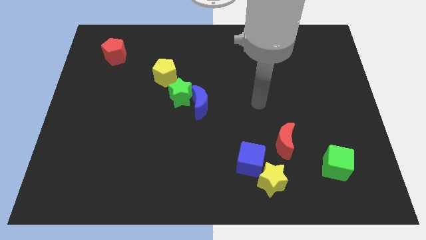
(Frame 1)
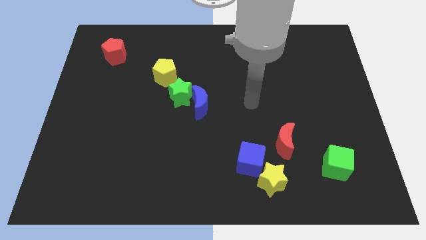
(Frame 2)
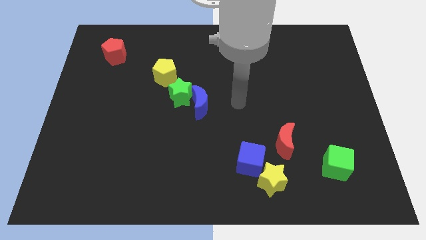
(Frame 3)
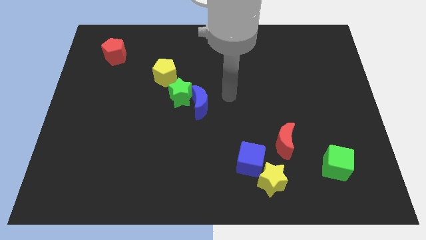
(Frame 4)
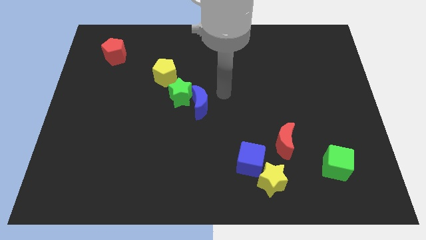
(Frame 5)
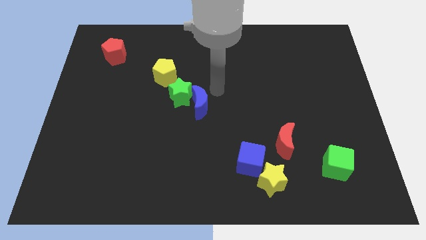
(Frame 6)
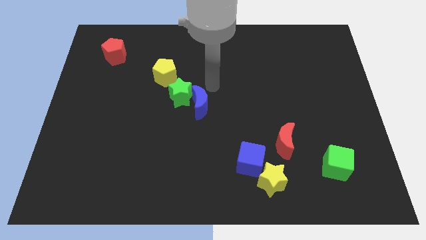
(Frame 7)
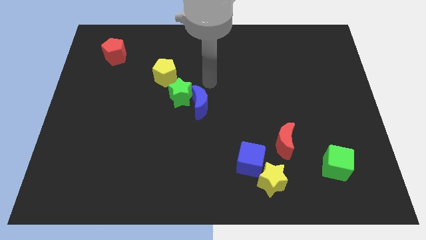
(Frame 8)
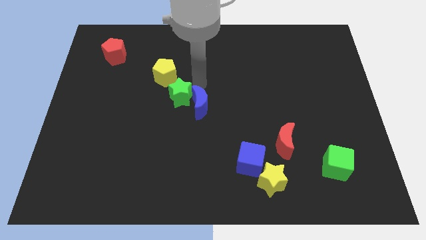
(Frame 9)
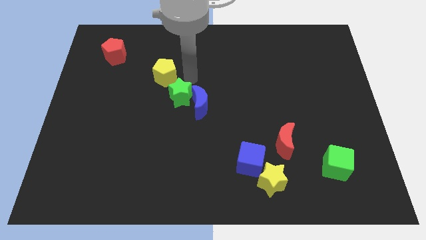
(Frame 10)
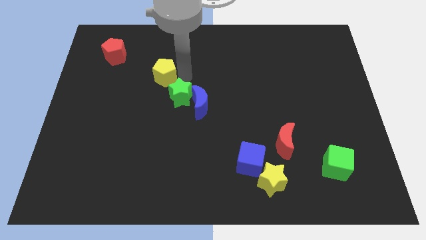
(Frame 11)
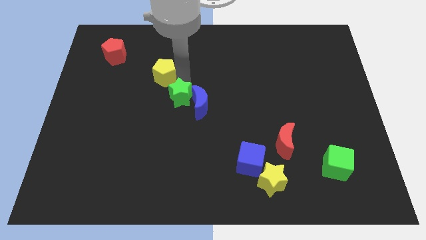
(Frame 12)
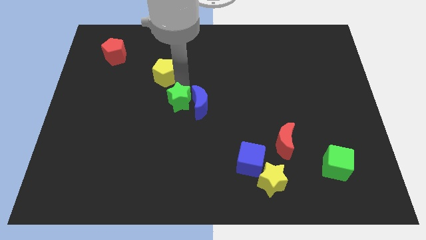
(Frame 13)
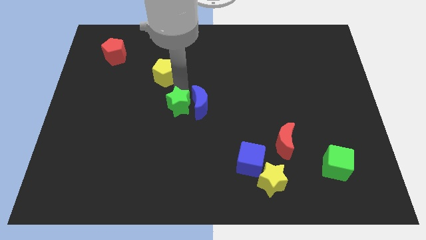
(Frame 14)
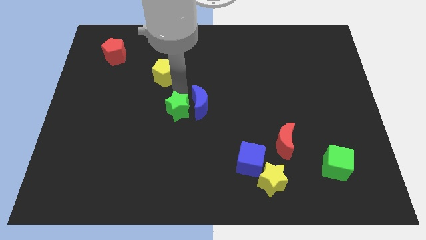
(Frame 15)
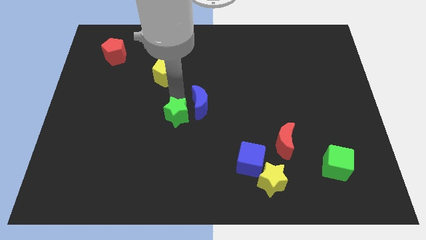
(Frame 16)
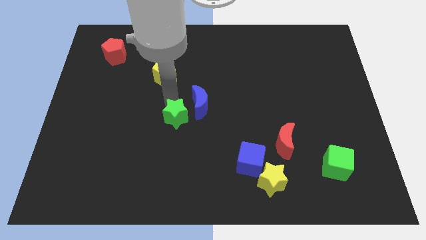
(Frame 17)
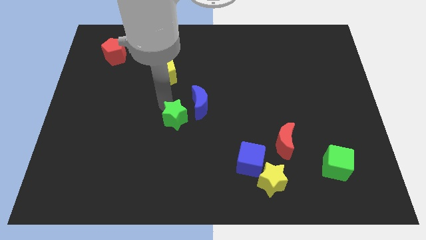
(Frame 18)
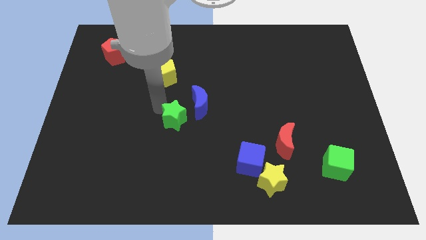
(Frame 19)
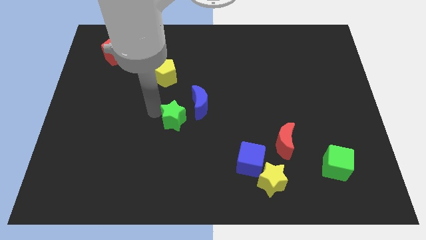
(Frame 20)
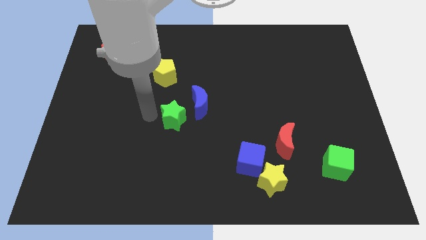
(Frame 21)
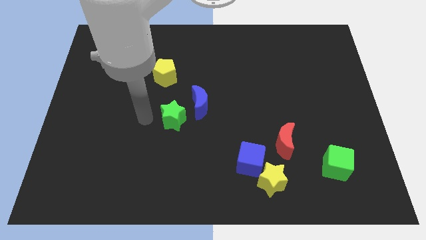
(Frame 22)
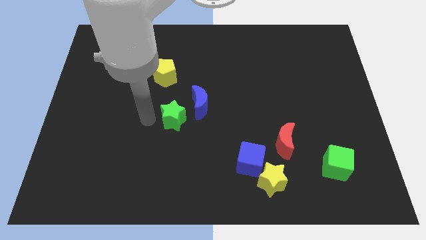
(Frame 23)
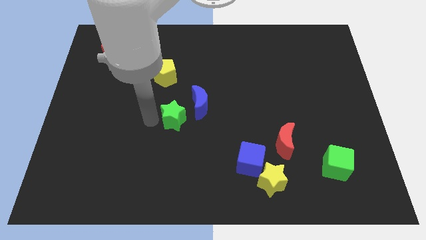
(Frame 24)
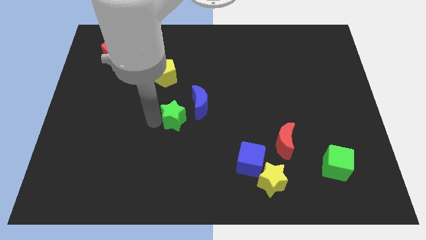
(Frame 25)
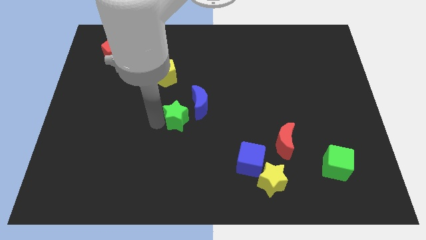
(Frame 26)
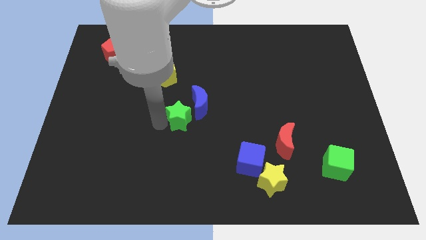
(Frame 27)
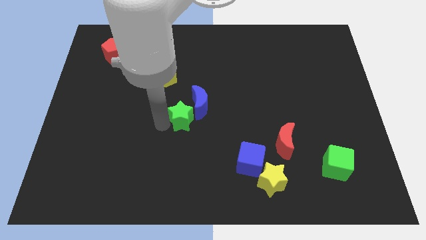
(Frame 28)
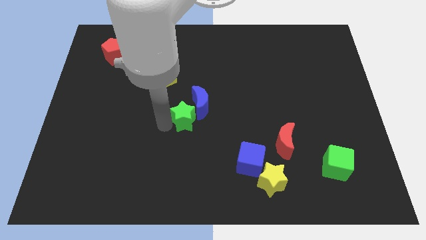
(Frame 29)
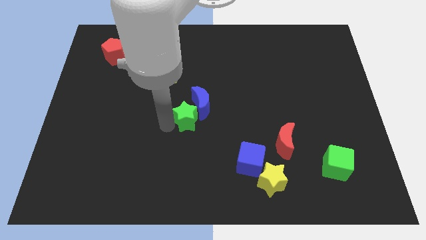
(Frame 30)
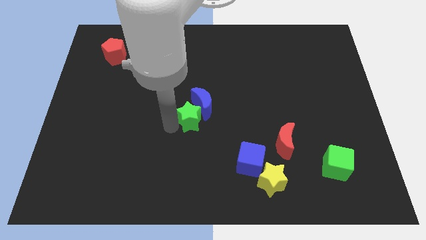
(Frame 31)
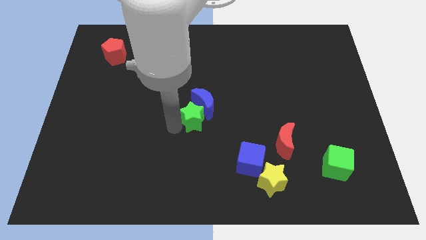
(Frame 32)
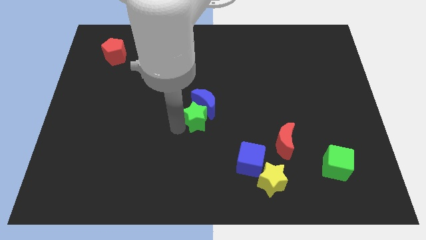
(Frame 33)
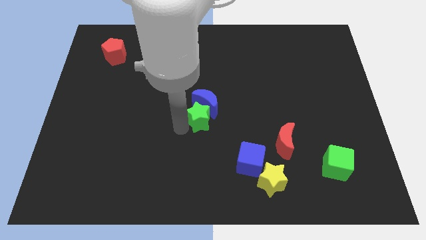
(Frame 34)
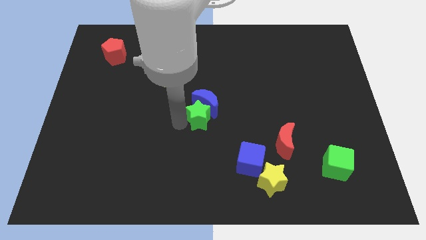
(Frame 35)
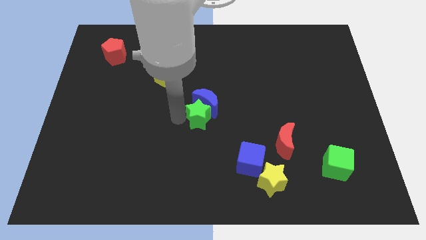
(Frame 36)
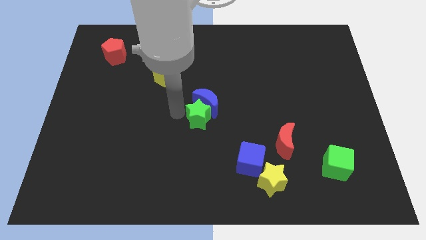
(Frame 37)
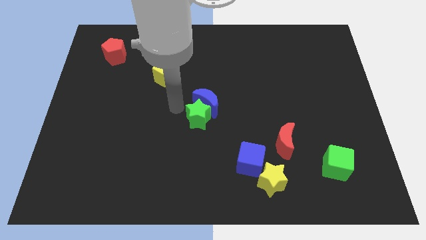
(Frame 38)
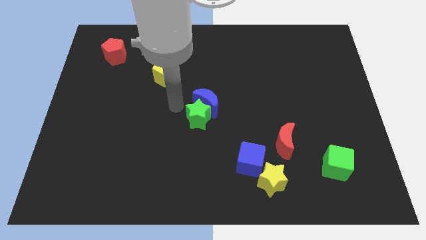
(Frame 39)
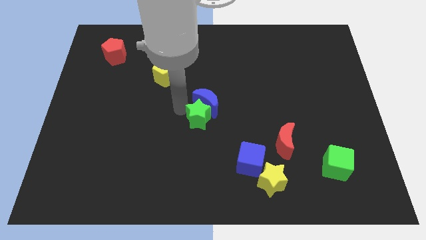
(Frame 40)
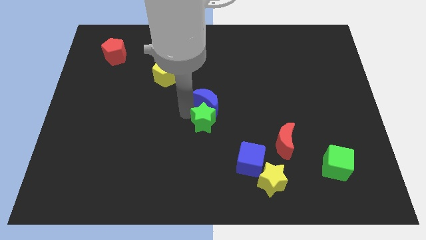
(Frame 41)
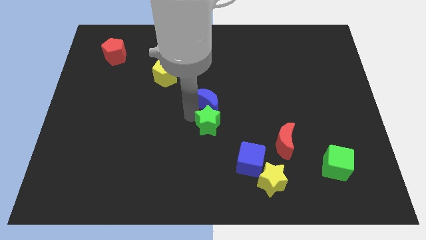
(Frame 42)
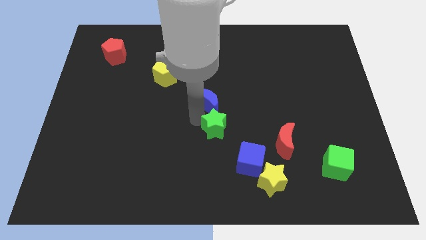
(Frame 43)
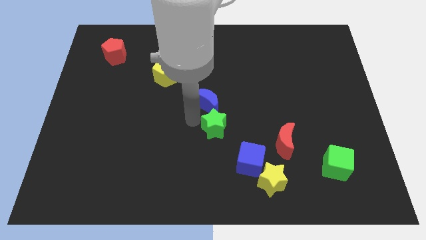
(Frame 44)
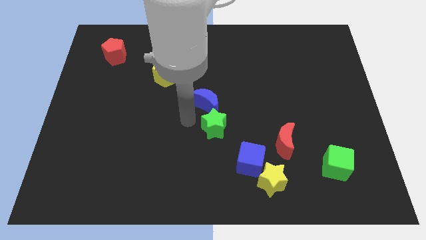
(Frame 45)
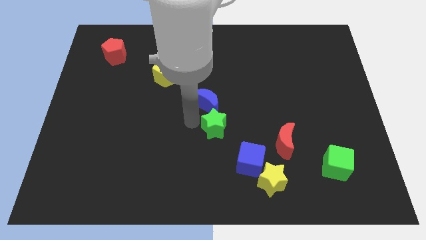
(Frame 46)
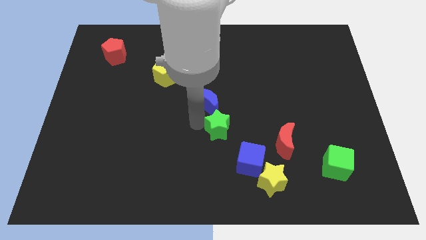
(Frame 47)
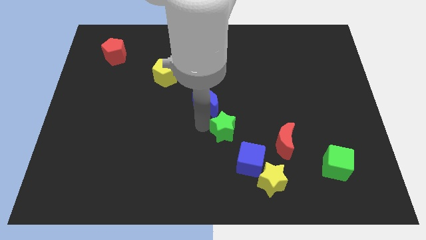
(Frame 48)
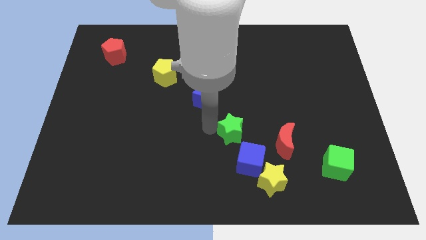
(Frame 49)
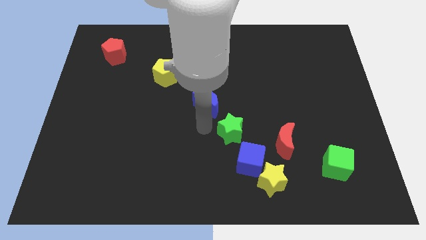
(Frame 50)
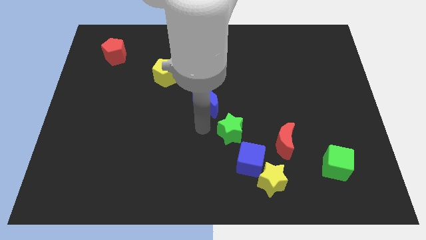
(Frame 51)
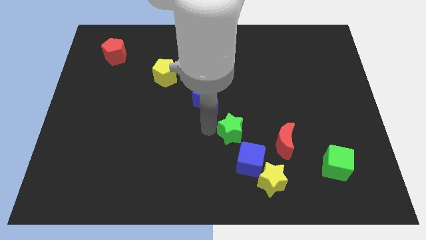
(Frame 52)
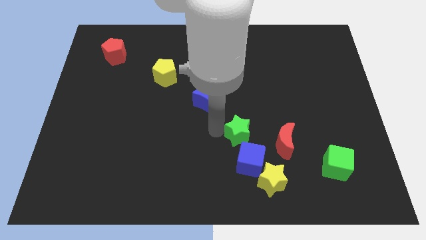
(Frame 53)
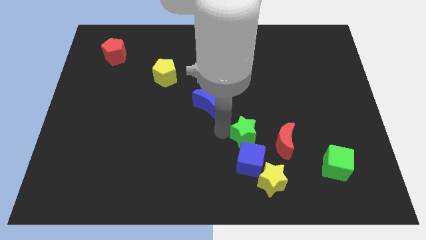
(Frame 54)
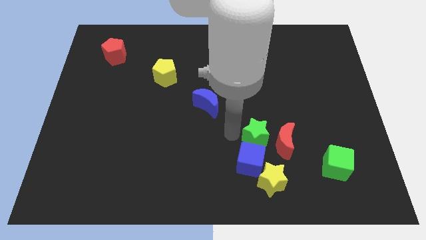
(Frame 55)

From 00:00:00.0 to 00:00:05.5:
push the green star towards the red moon

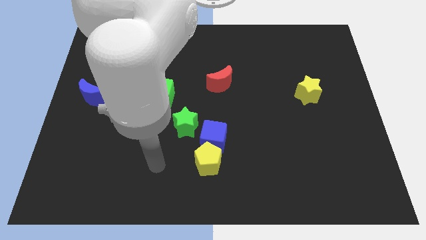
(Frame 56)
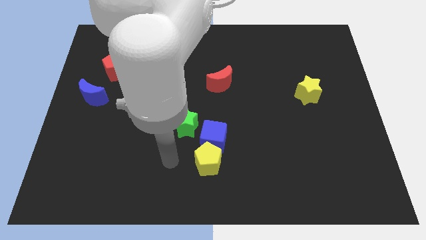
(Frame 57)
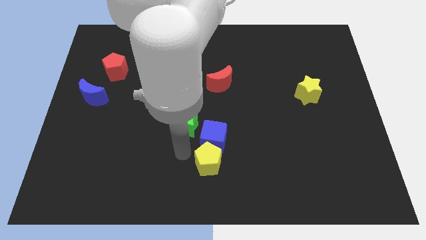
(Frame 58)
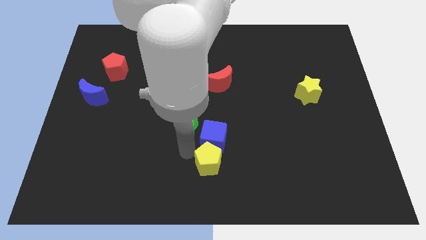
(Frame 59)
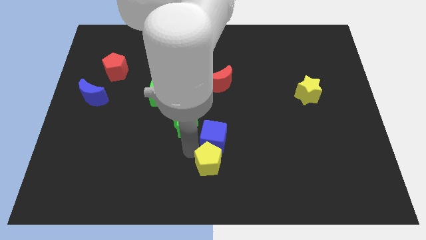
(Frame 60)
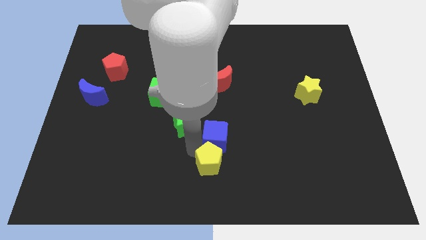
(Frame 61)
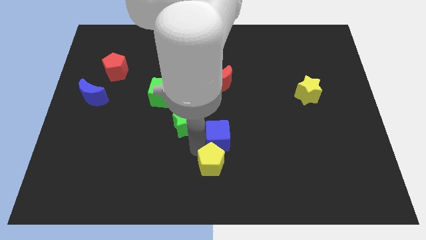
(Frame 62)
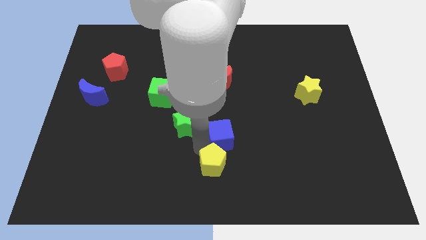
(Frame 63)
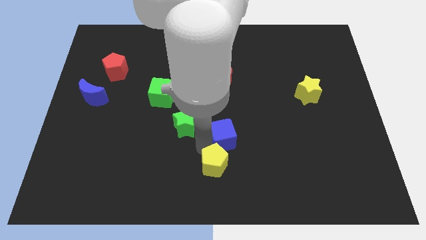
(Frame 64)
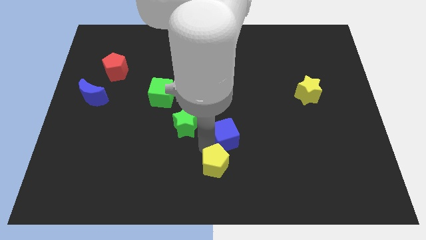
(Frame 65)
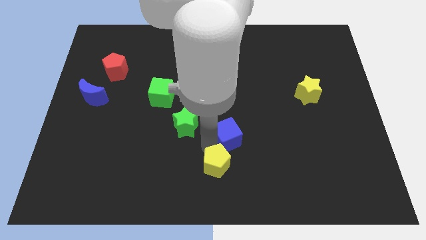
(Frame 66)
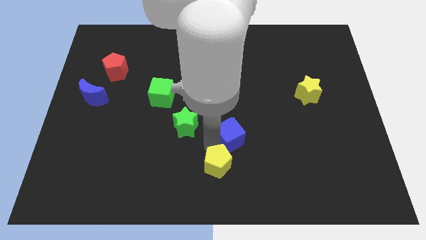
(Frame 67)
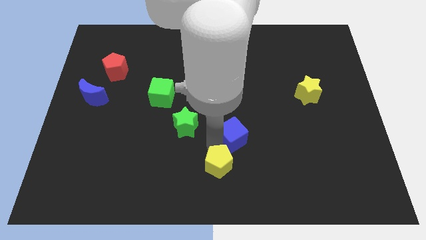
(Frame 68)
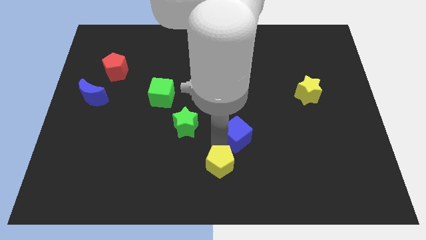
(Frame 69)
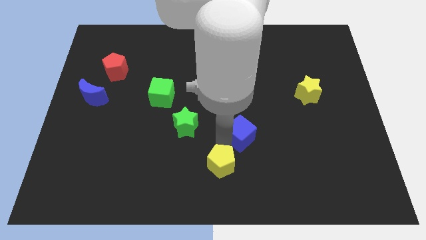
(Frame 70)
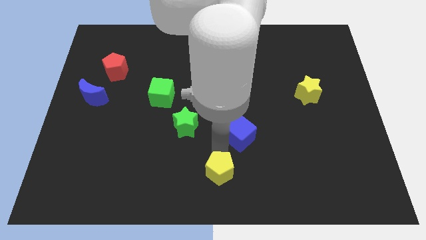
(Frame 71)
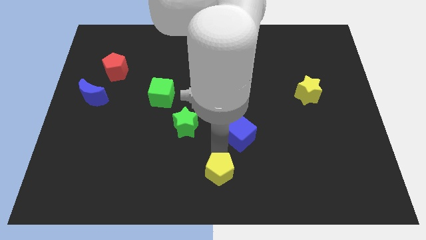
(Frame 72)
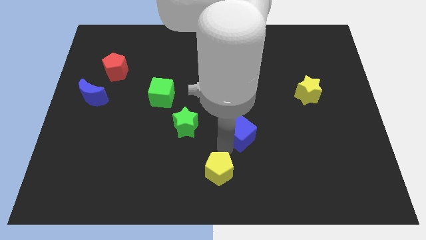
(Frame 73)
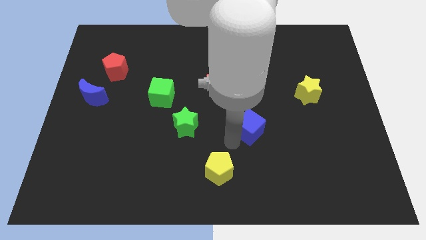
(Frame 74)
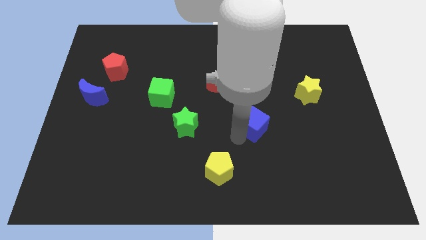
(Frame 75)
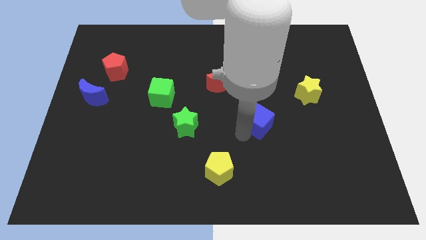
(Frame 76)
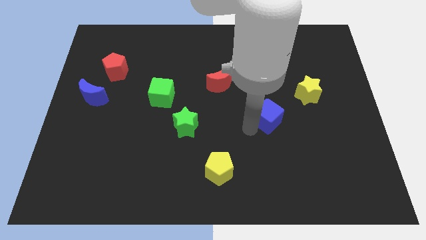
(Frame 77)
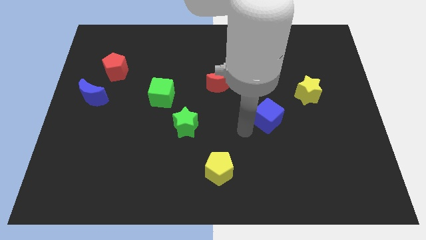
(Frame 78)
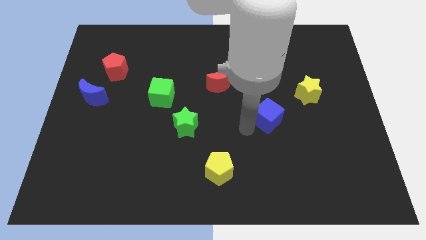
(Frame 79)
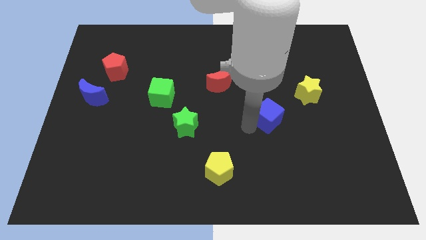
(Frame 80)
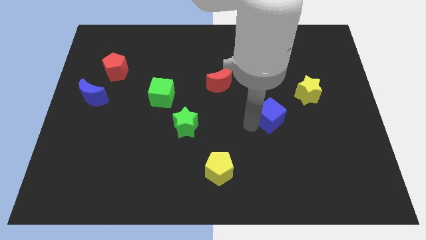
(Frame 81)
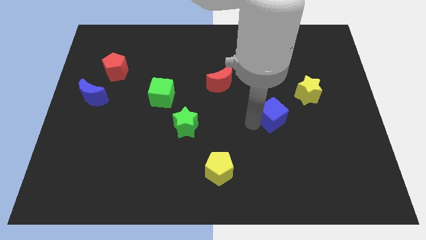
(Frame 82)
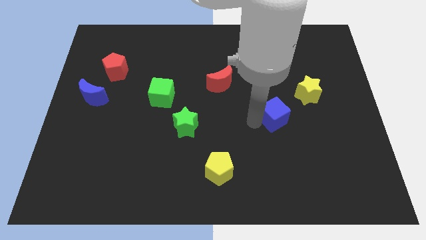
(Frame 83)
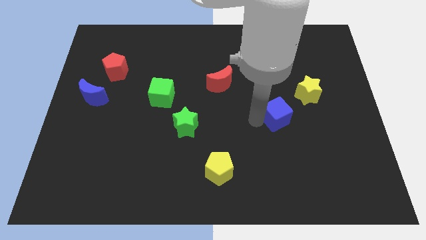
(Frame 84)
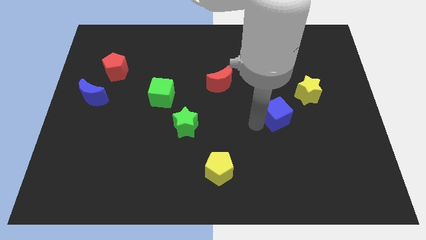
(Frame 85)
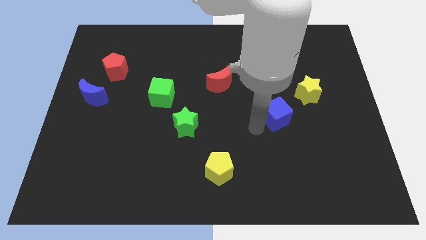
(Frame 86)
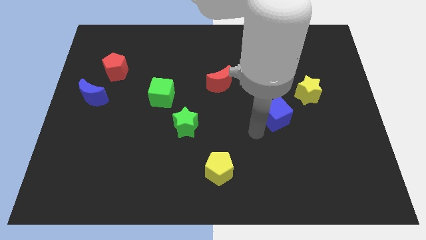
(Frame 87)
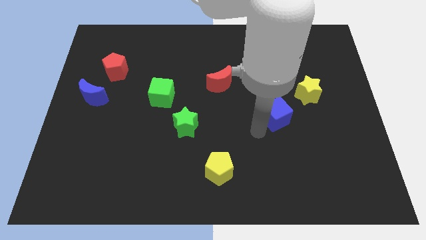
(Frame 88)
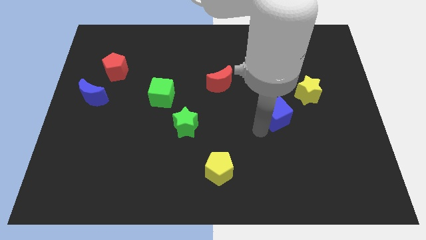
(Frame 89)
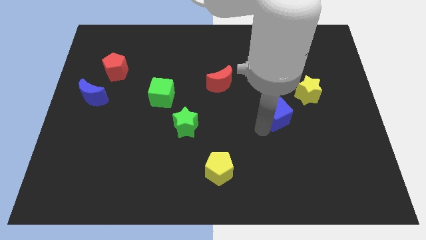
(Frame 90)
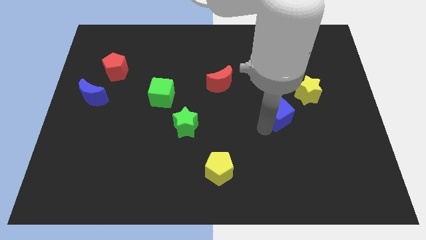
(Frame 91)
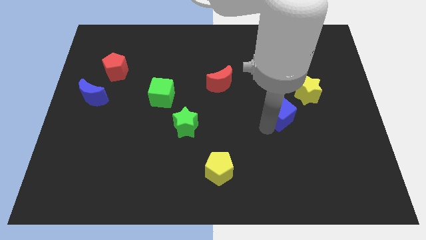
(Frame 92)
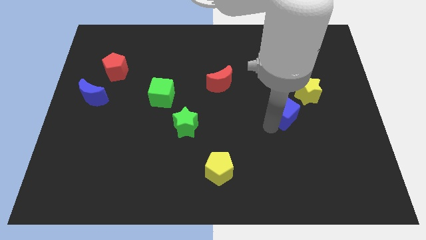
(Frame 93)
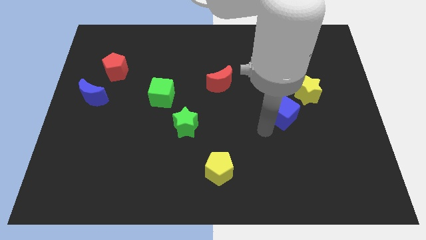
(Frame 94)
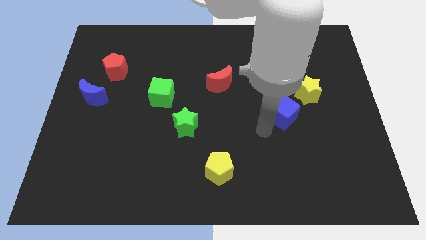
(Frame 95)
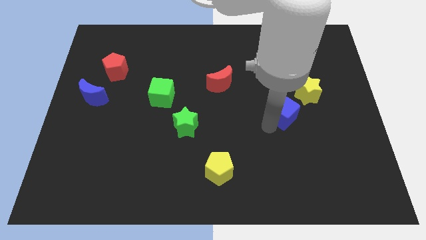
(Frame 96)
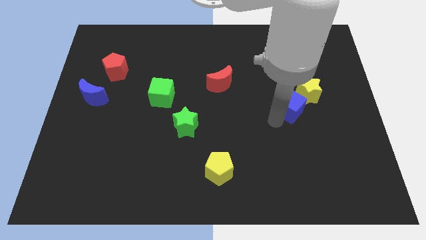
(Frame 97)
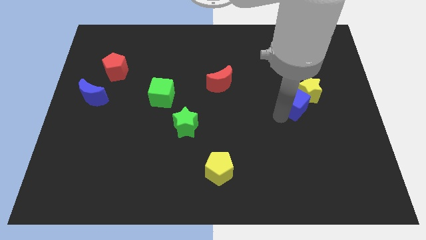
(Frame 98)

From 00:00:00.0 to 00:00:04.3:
push the blue cube towards the yellow star
